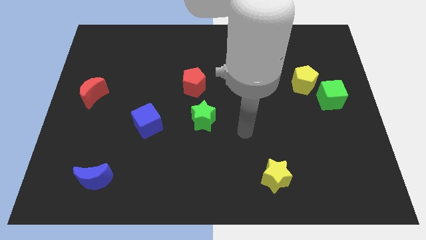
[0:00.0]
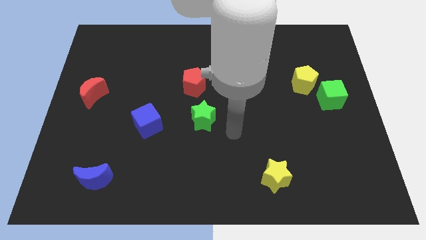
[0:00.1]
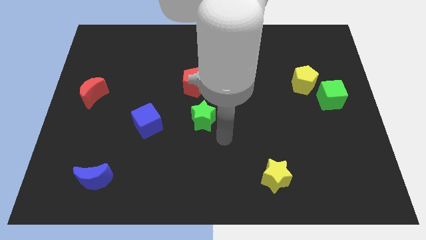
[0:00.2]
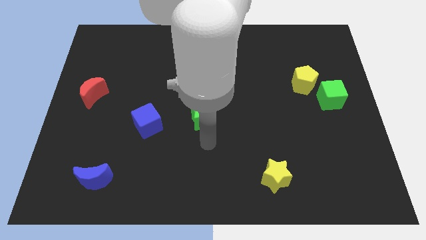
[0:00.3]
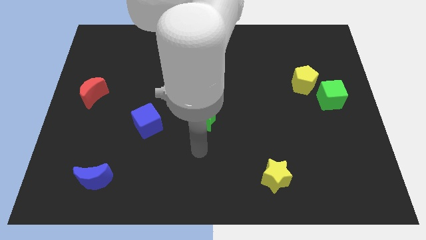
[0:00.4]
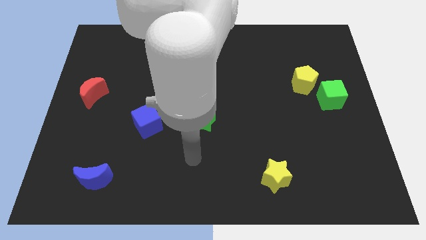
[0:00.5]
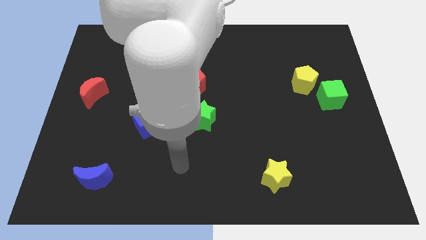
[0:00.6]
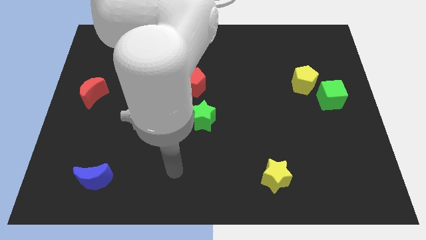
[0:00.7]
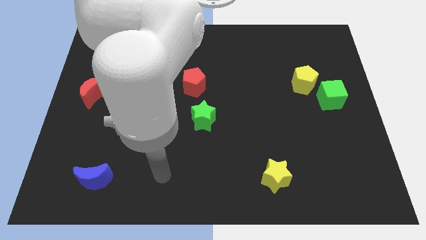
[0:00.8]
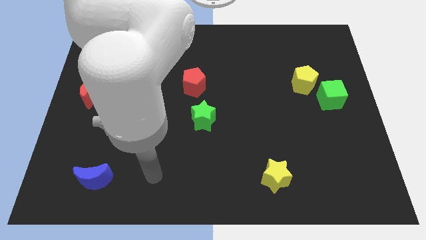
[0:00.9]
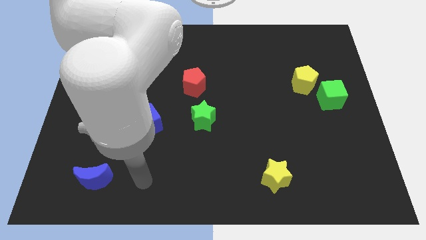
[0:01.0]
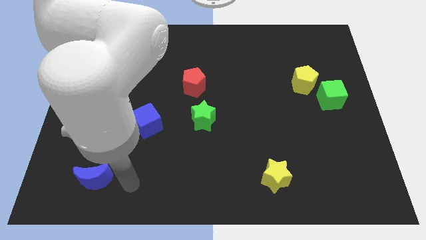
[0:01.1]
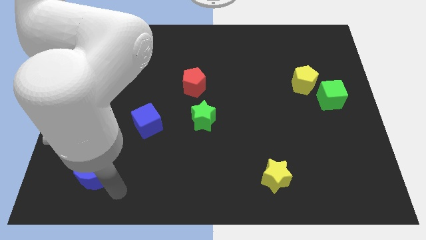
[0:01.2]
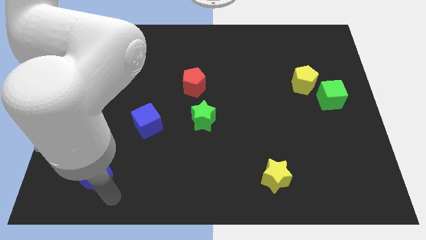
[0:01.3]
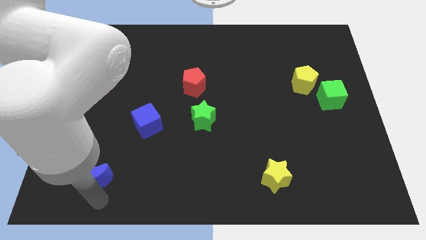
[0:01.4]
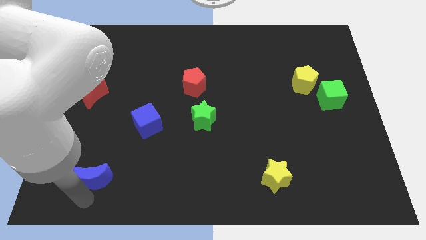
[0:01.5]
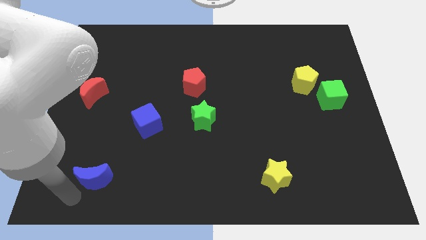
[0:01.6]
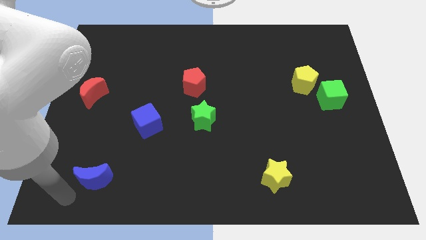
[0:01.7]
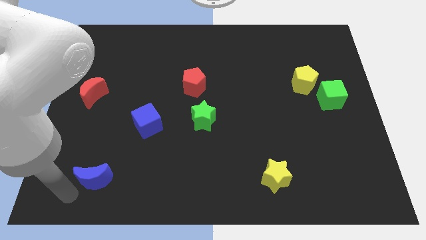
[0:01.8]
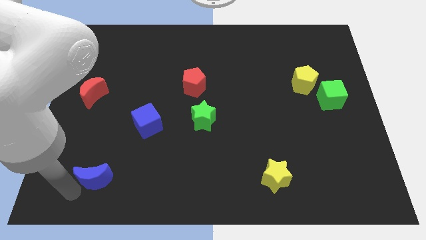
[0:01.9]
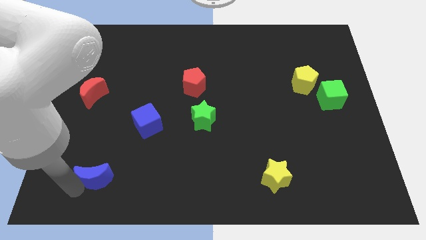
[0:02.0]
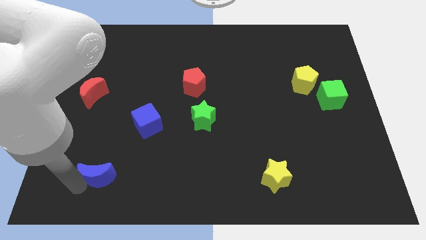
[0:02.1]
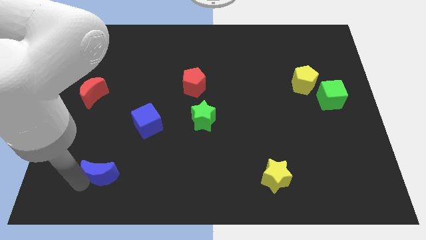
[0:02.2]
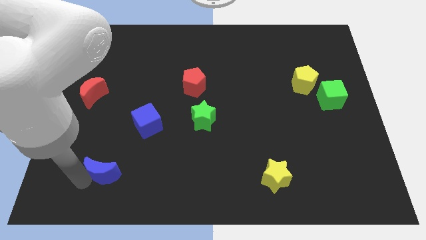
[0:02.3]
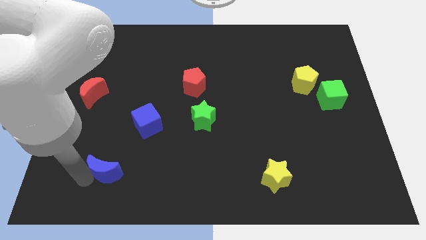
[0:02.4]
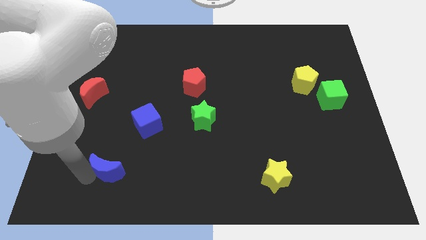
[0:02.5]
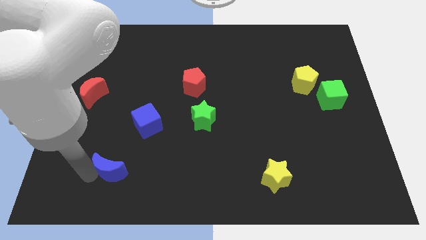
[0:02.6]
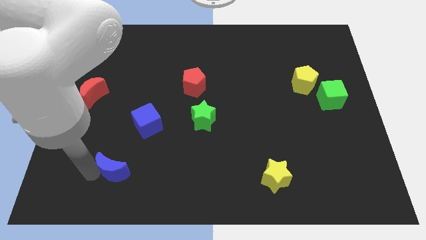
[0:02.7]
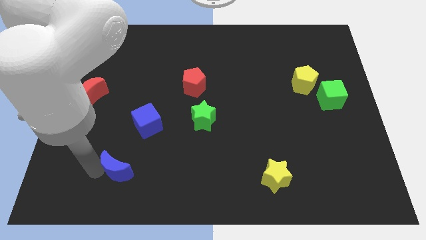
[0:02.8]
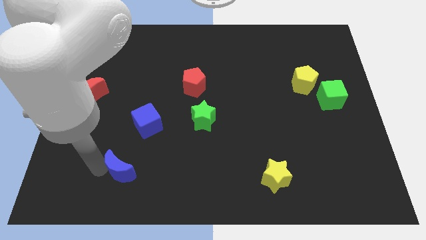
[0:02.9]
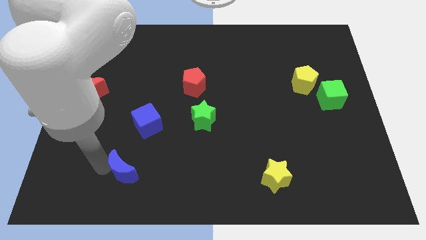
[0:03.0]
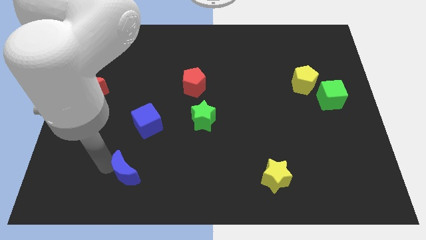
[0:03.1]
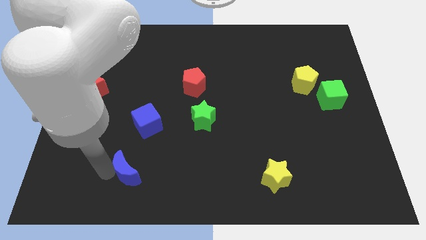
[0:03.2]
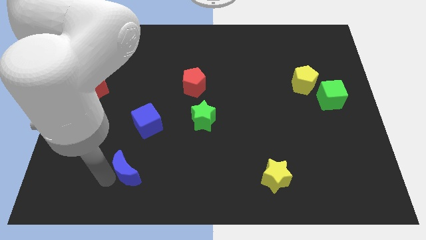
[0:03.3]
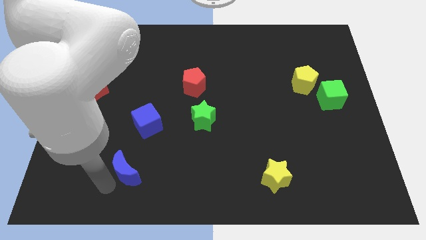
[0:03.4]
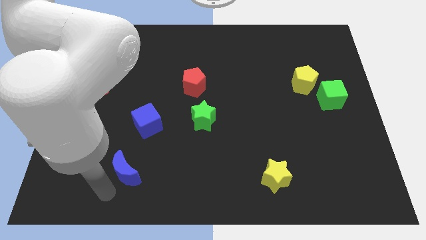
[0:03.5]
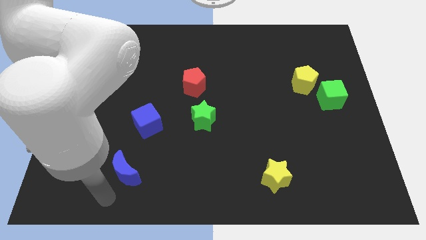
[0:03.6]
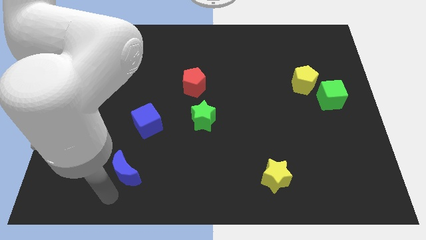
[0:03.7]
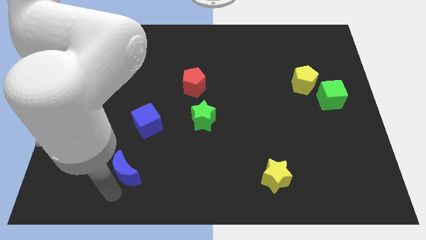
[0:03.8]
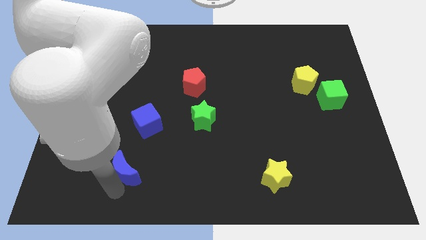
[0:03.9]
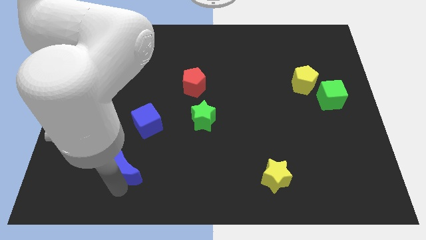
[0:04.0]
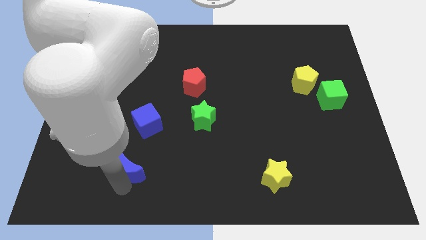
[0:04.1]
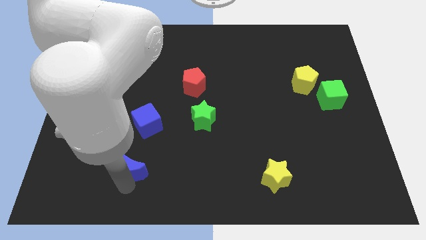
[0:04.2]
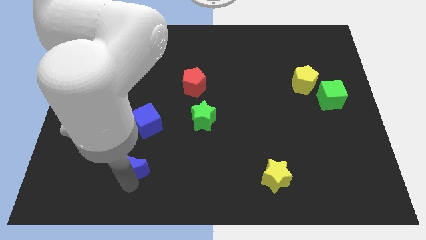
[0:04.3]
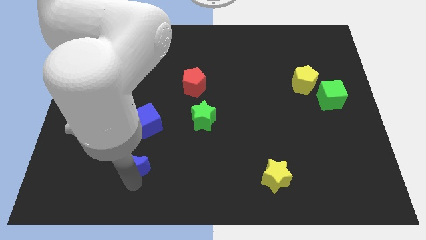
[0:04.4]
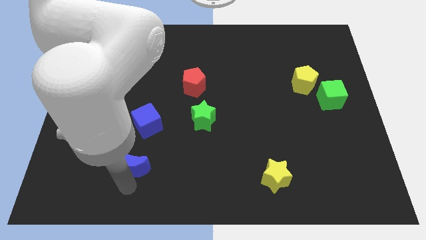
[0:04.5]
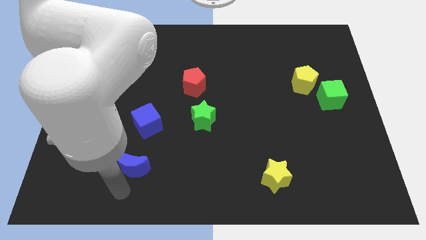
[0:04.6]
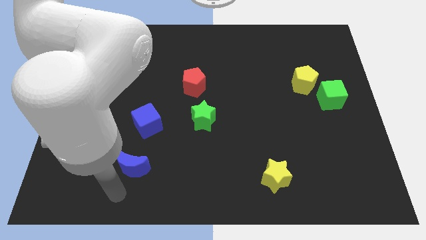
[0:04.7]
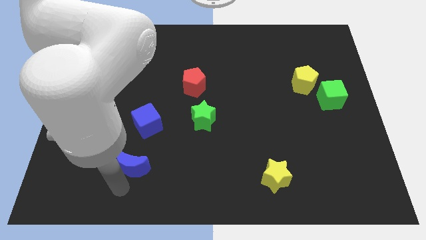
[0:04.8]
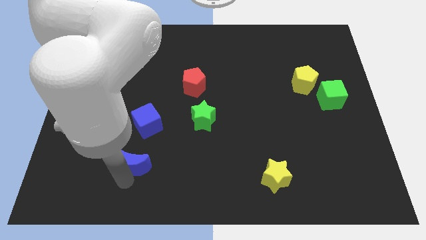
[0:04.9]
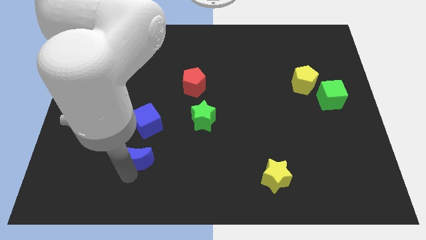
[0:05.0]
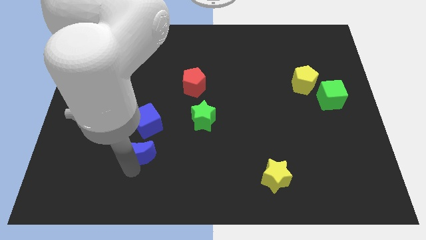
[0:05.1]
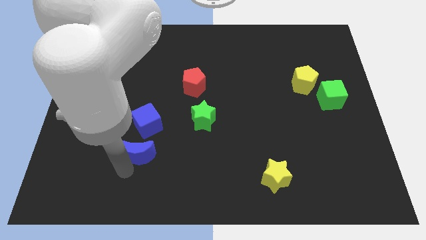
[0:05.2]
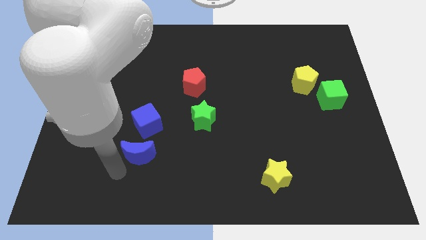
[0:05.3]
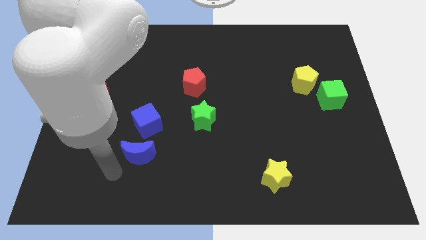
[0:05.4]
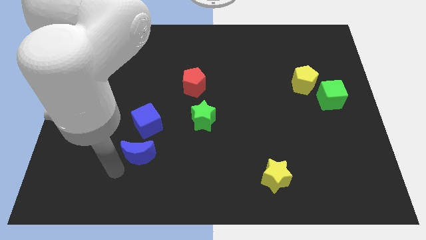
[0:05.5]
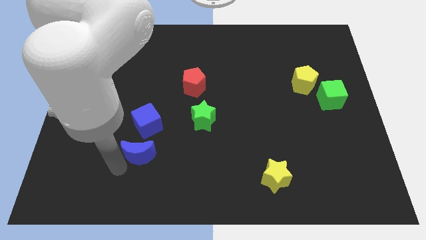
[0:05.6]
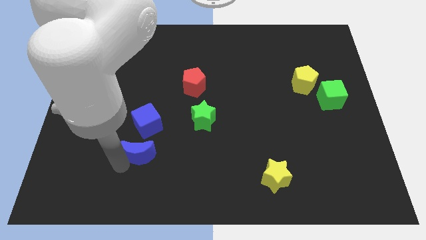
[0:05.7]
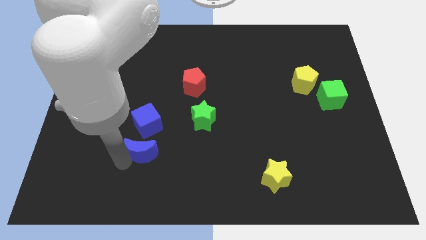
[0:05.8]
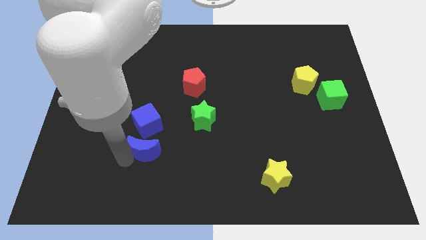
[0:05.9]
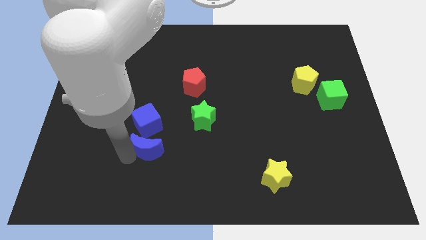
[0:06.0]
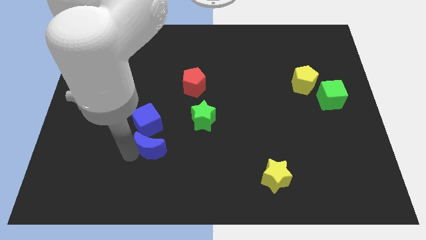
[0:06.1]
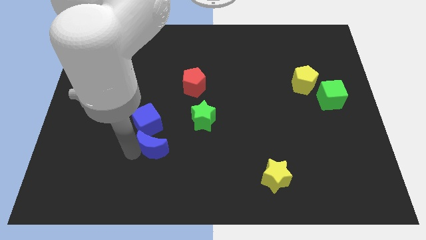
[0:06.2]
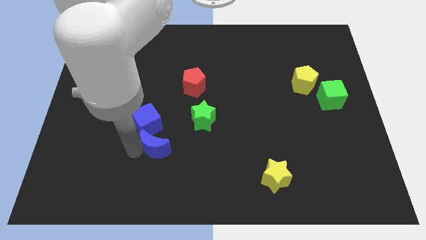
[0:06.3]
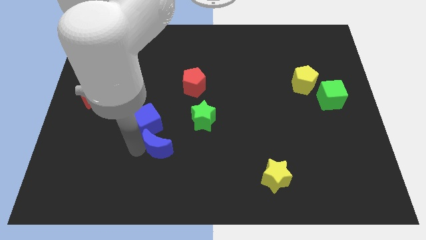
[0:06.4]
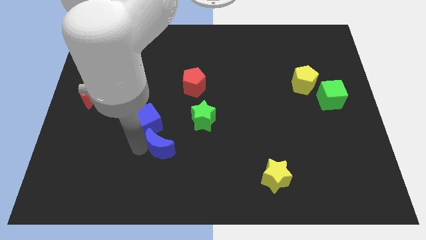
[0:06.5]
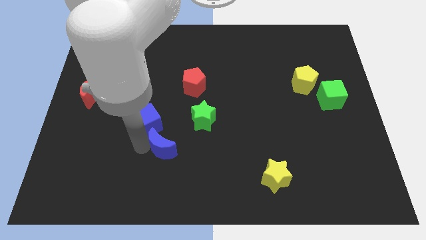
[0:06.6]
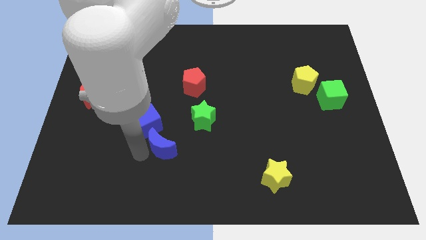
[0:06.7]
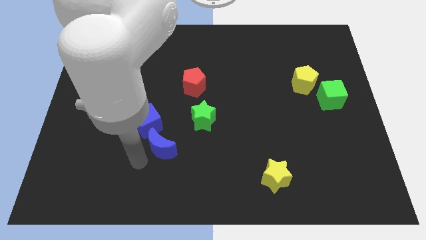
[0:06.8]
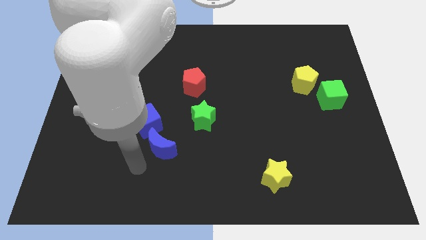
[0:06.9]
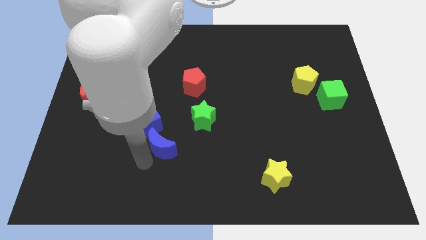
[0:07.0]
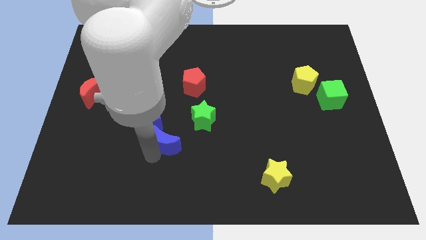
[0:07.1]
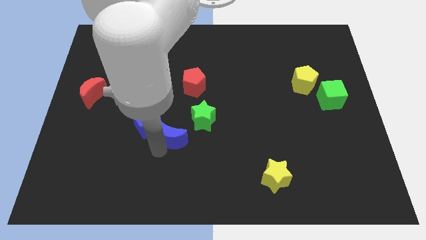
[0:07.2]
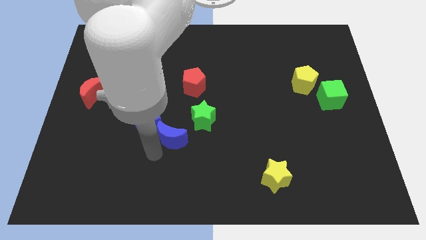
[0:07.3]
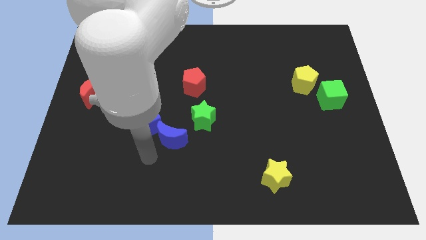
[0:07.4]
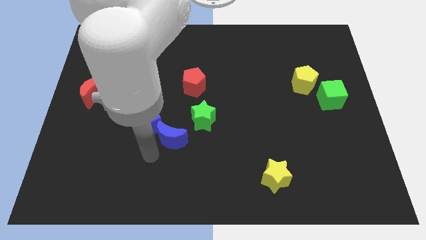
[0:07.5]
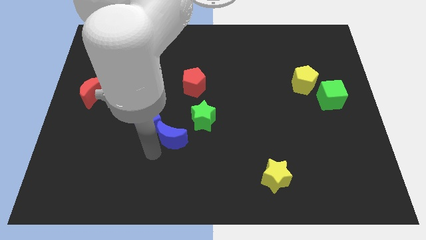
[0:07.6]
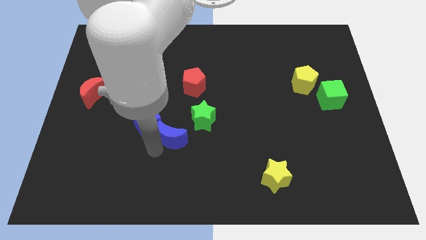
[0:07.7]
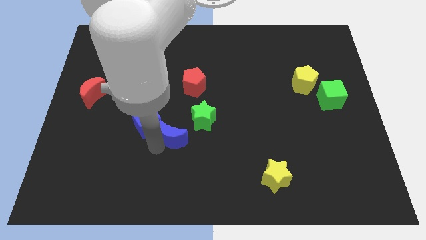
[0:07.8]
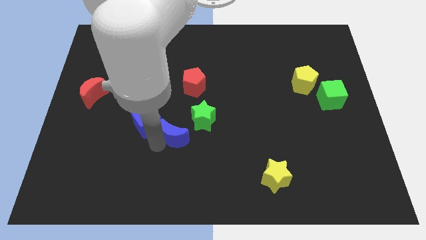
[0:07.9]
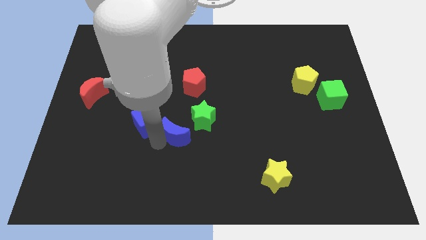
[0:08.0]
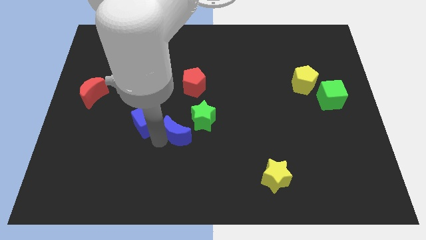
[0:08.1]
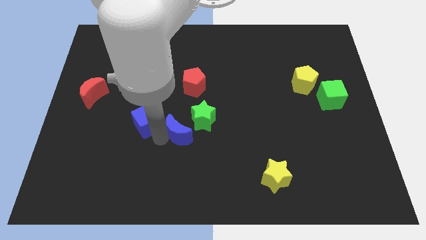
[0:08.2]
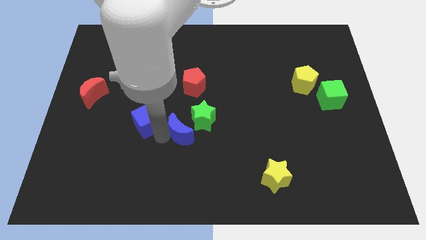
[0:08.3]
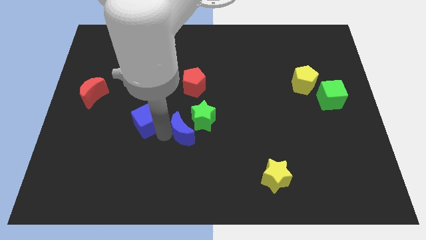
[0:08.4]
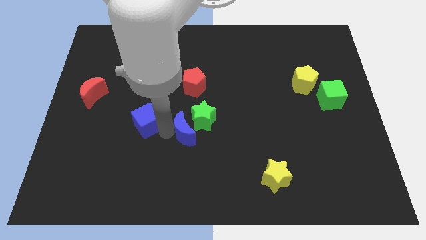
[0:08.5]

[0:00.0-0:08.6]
move the blue moon close to the green star
